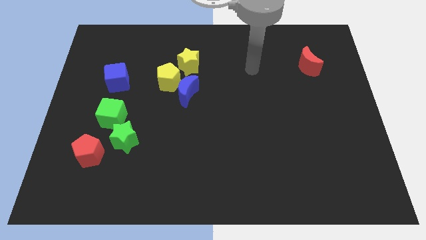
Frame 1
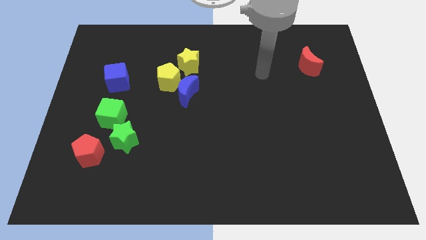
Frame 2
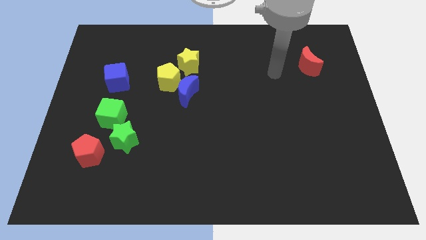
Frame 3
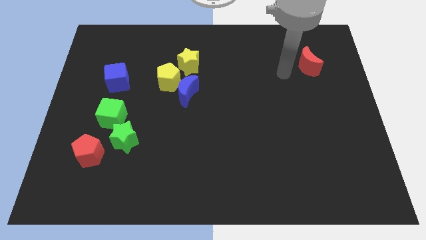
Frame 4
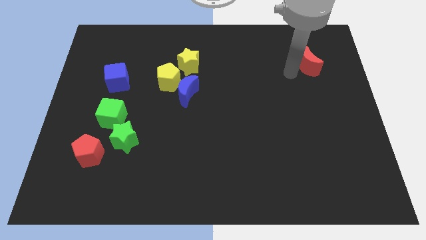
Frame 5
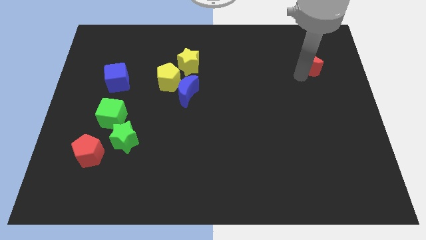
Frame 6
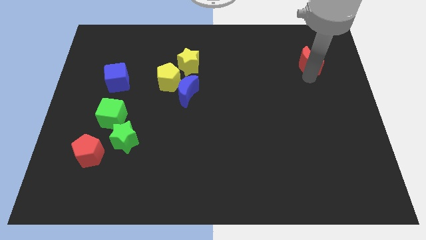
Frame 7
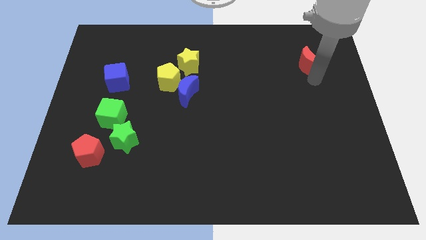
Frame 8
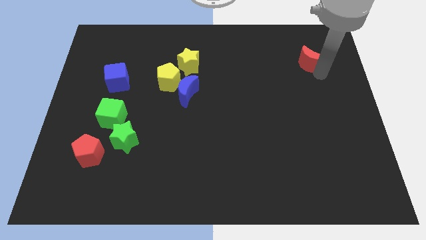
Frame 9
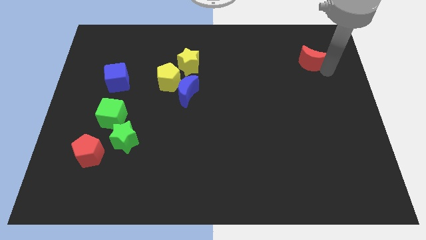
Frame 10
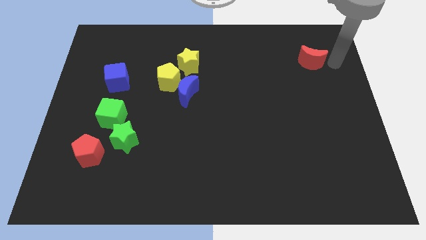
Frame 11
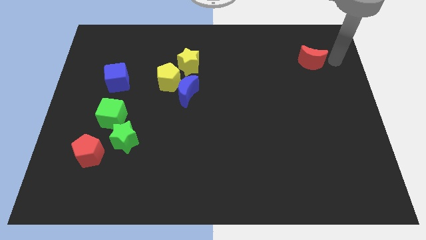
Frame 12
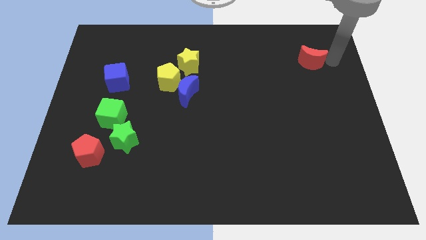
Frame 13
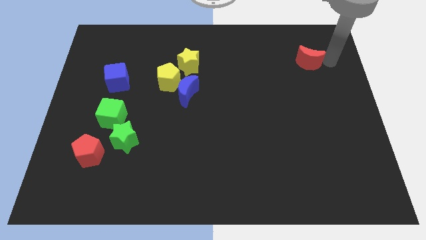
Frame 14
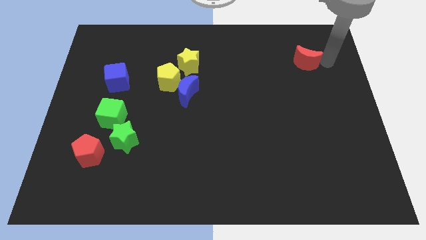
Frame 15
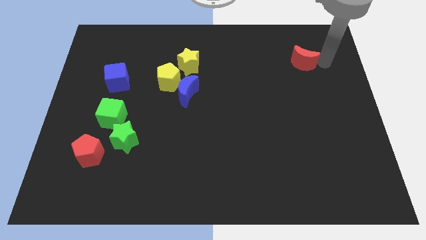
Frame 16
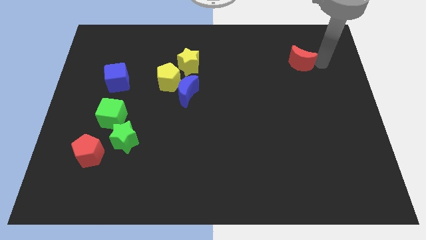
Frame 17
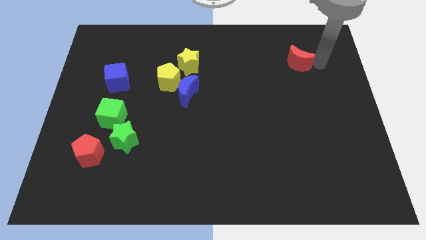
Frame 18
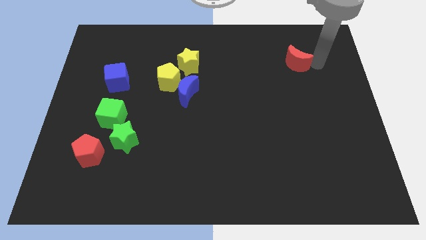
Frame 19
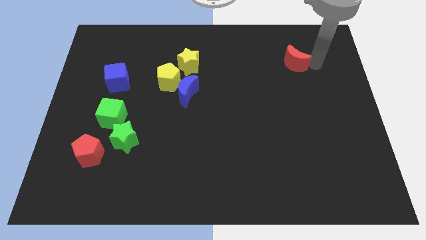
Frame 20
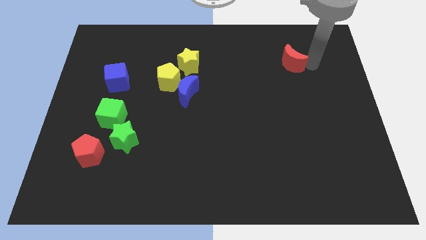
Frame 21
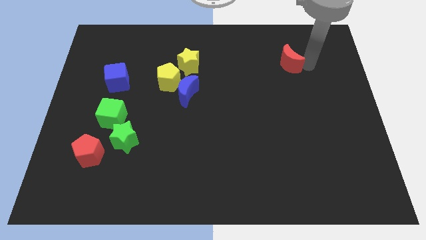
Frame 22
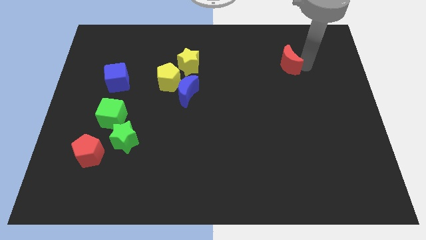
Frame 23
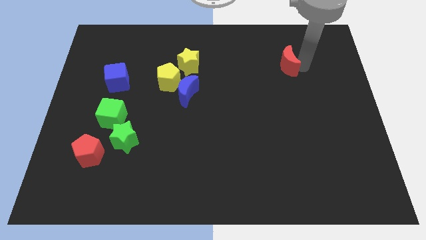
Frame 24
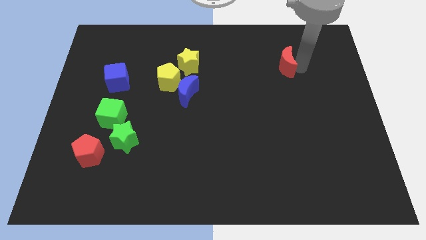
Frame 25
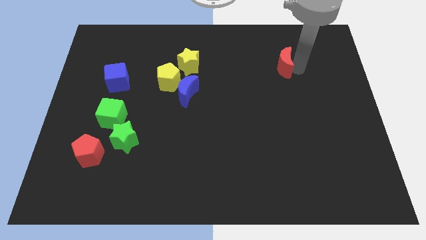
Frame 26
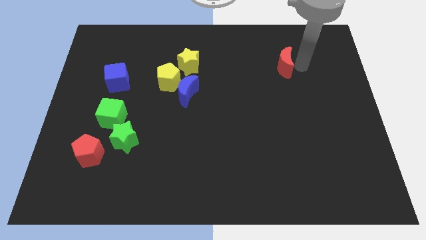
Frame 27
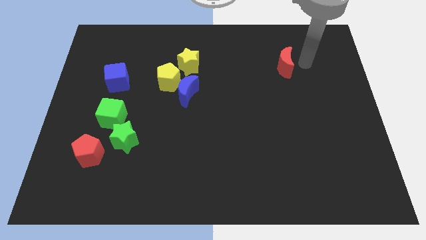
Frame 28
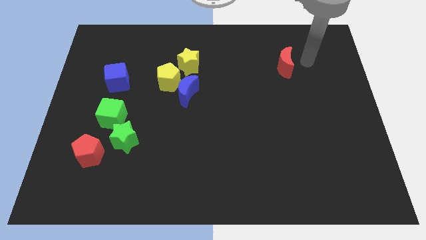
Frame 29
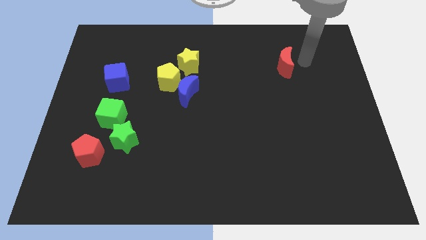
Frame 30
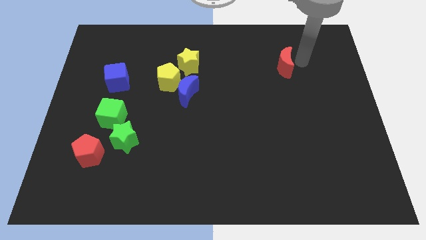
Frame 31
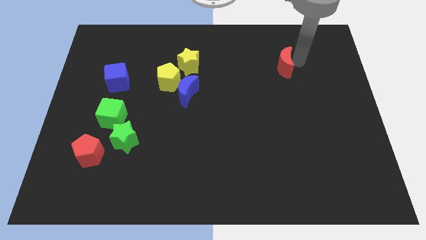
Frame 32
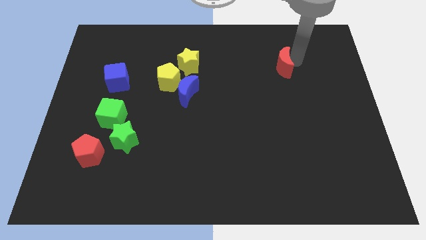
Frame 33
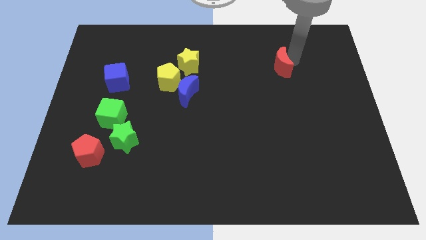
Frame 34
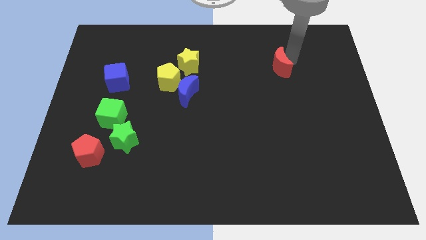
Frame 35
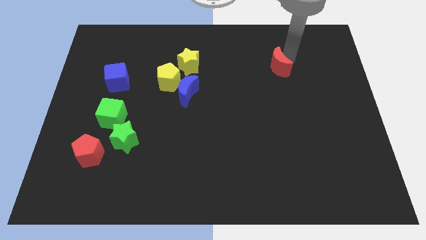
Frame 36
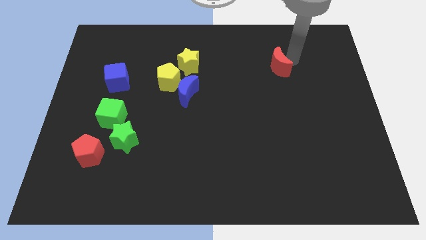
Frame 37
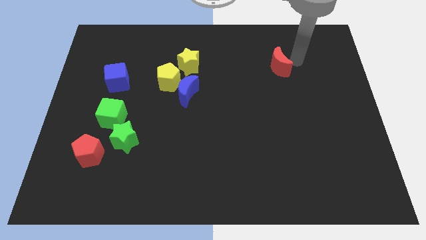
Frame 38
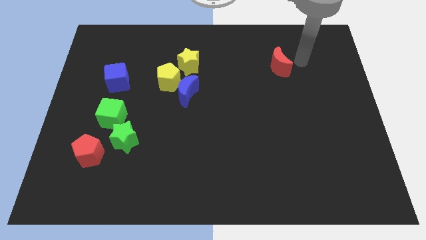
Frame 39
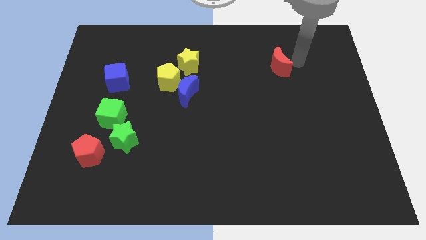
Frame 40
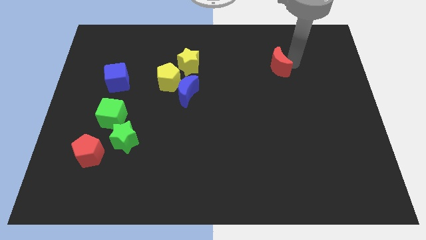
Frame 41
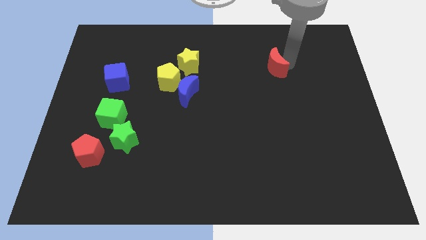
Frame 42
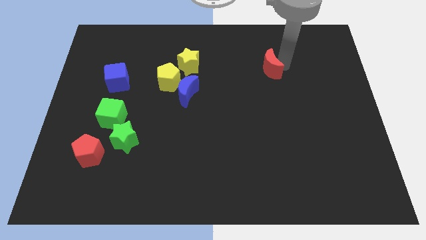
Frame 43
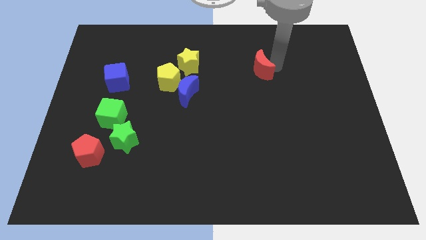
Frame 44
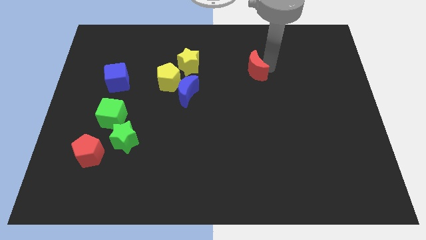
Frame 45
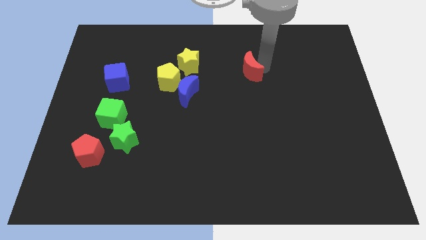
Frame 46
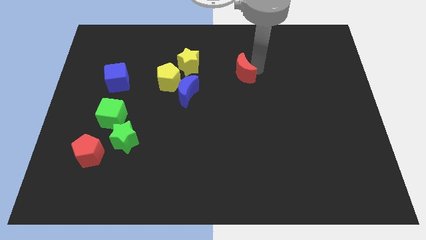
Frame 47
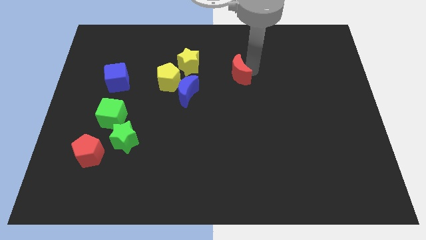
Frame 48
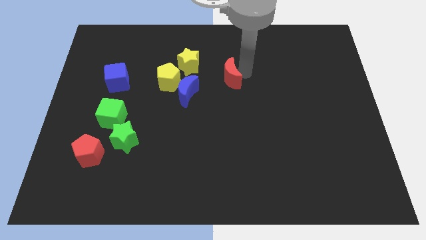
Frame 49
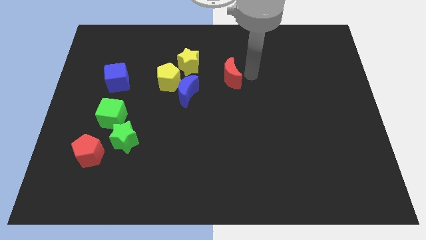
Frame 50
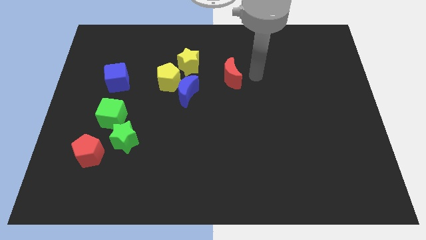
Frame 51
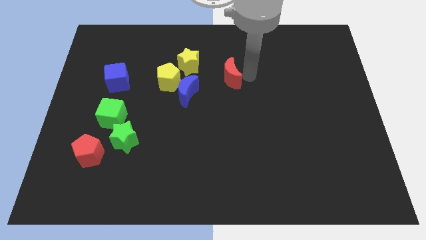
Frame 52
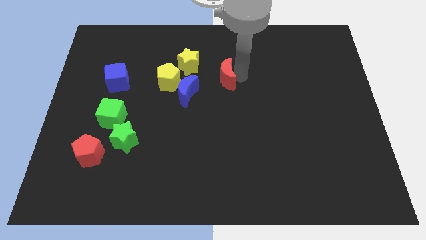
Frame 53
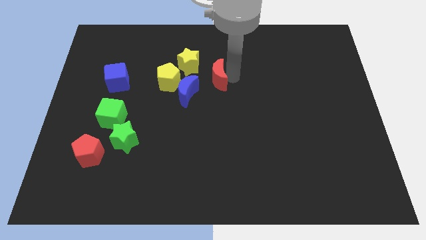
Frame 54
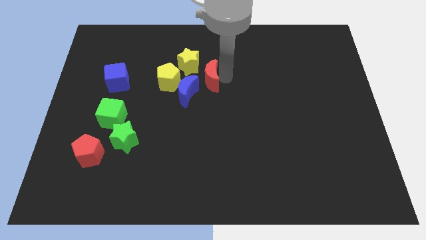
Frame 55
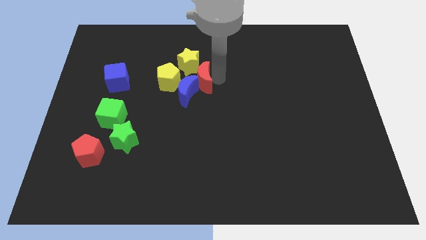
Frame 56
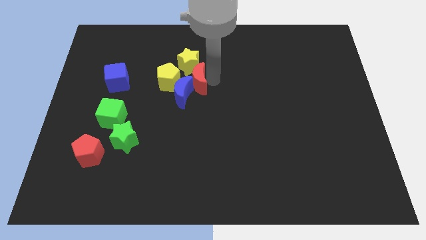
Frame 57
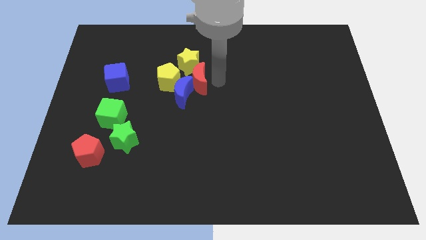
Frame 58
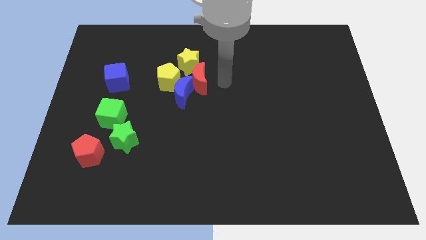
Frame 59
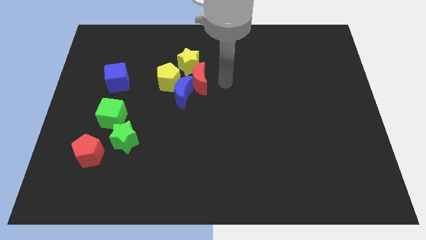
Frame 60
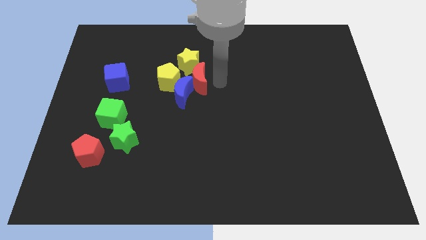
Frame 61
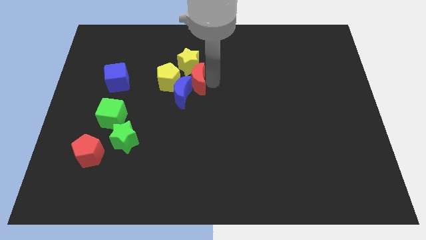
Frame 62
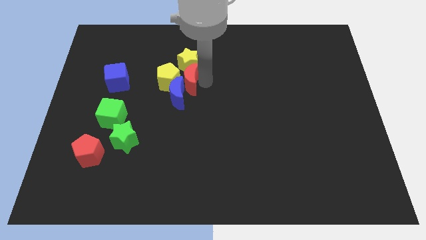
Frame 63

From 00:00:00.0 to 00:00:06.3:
move the red moon to the yellow pentagon
